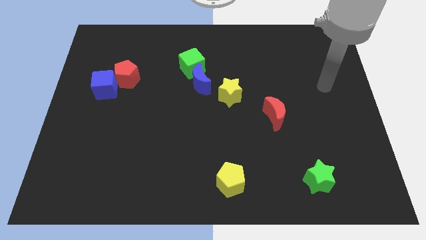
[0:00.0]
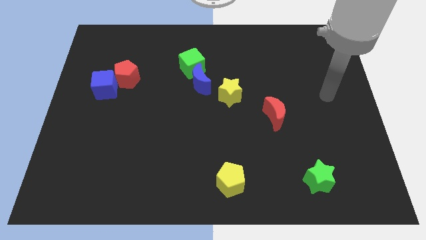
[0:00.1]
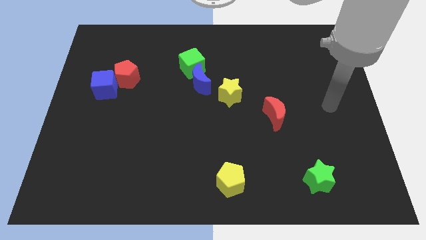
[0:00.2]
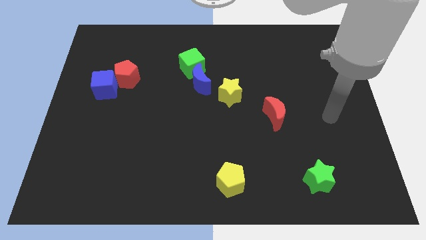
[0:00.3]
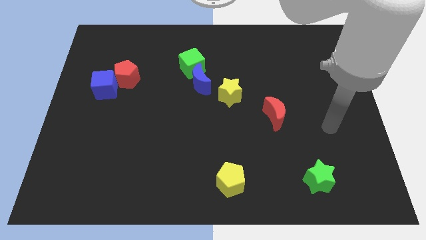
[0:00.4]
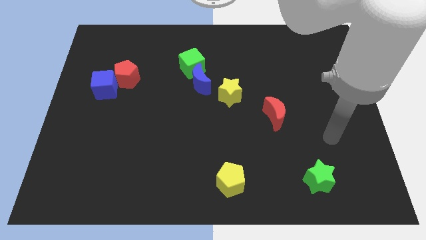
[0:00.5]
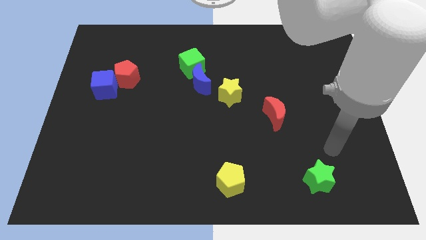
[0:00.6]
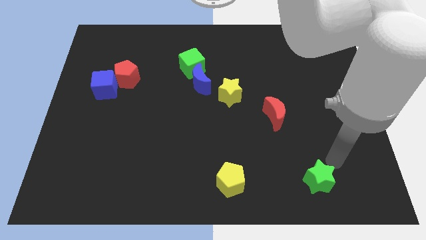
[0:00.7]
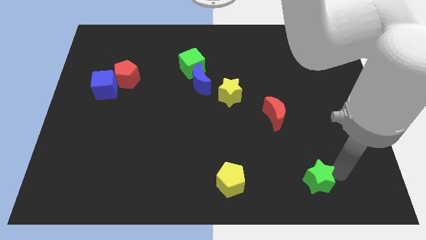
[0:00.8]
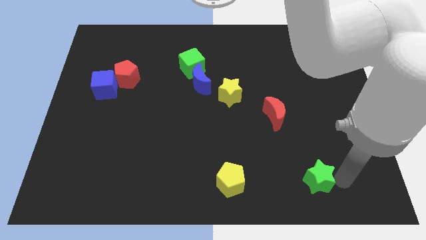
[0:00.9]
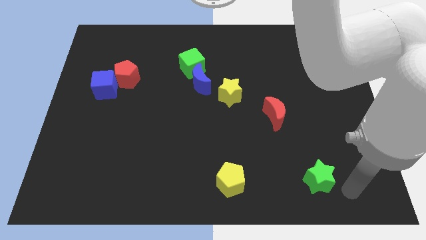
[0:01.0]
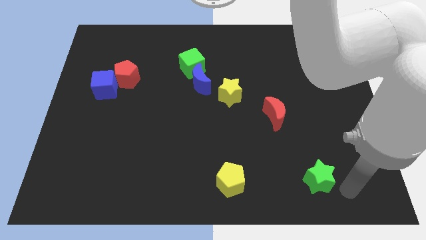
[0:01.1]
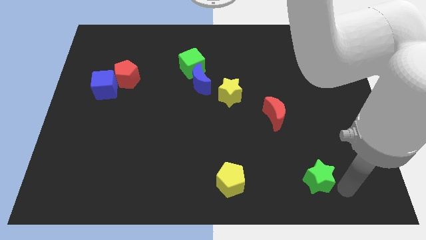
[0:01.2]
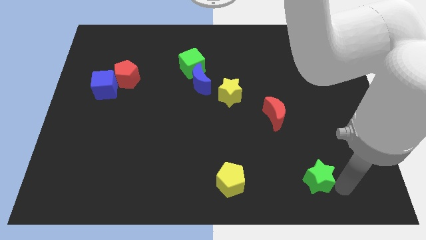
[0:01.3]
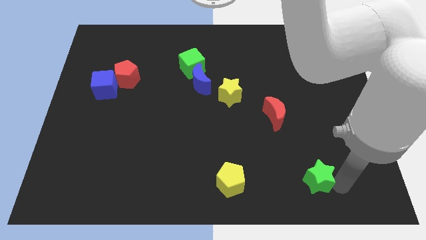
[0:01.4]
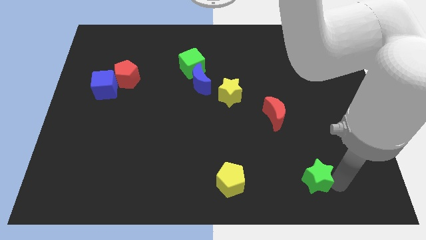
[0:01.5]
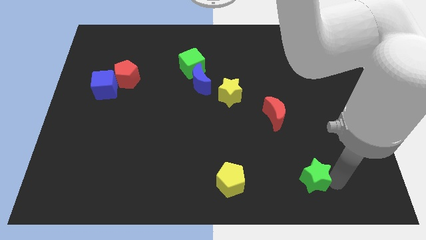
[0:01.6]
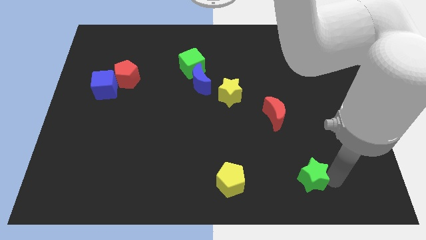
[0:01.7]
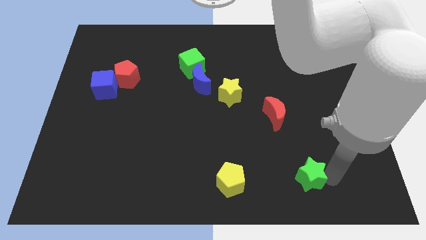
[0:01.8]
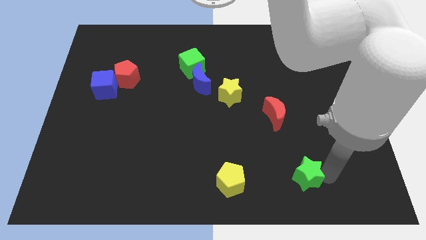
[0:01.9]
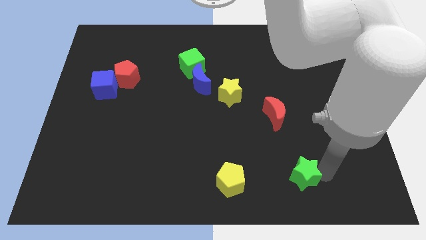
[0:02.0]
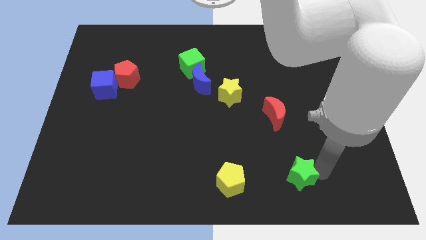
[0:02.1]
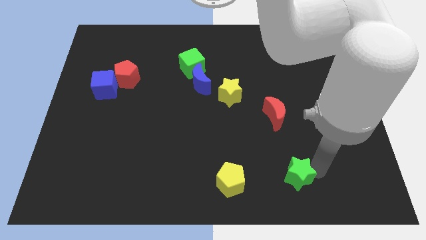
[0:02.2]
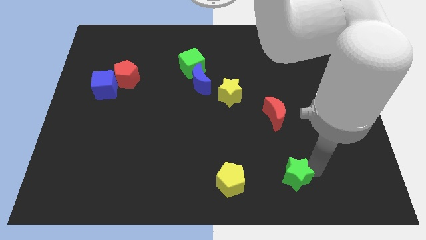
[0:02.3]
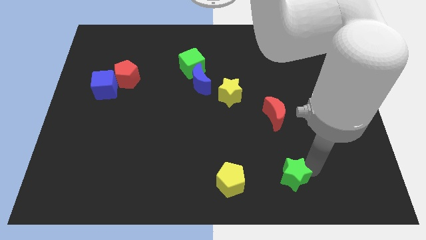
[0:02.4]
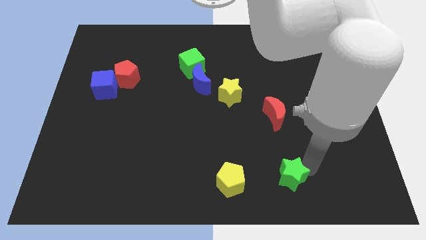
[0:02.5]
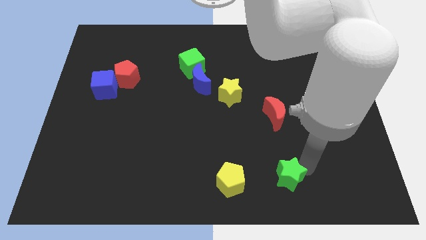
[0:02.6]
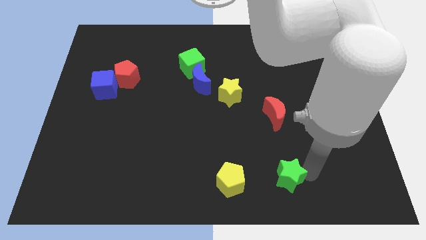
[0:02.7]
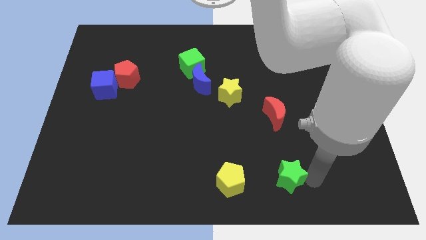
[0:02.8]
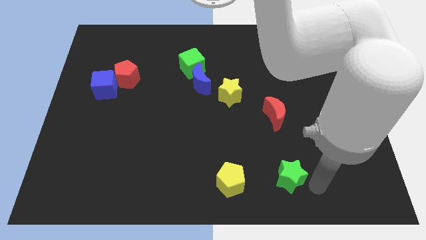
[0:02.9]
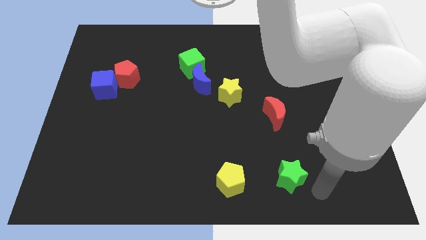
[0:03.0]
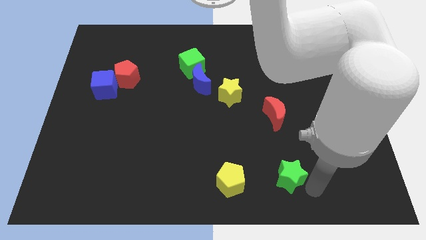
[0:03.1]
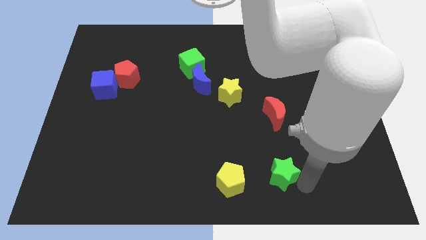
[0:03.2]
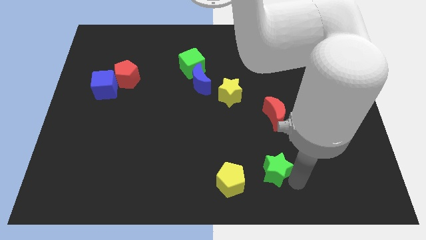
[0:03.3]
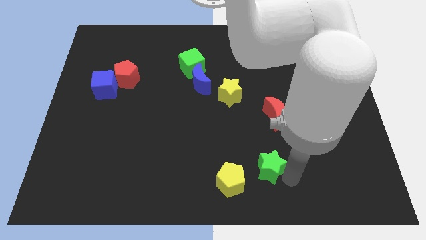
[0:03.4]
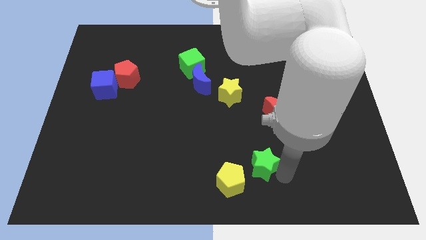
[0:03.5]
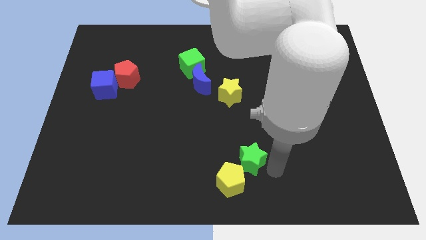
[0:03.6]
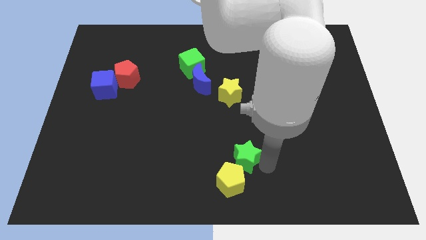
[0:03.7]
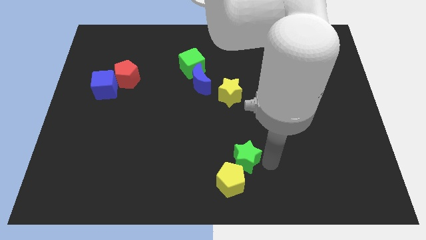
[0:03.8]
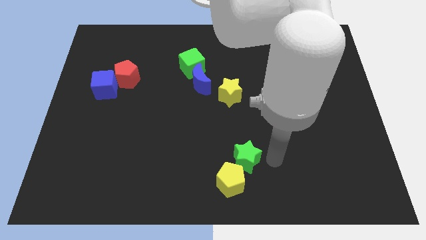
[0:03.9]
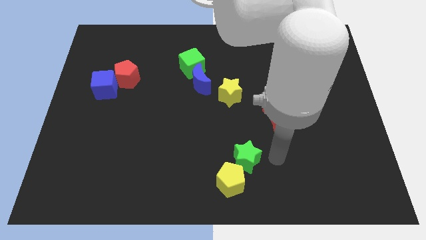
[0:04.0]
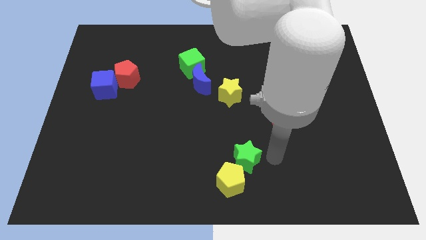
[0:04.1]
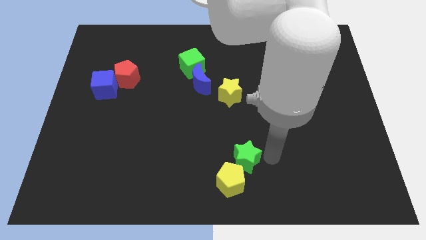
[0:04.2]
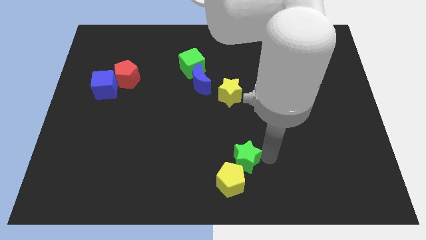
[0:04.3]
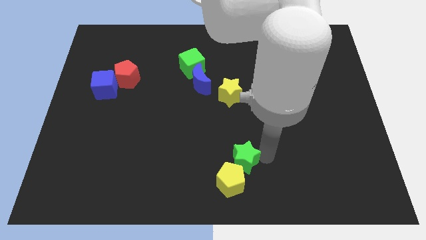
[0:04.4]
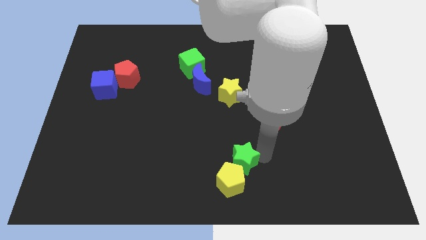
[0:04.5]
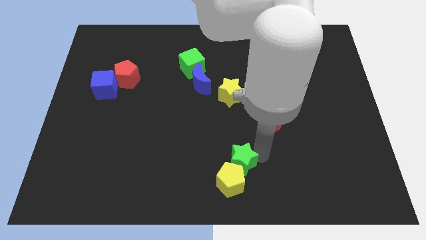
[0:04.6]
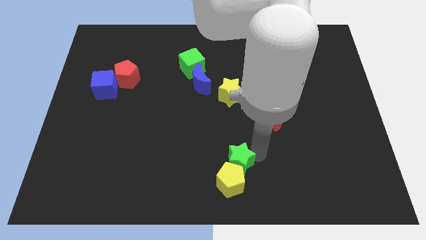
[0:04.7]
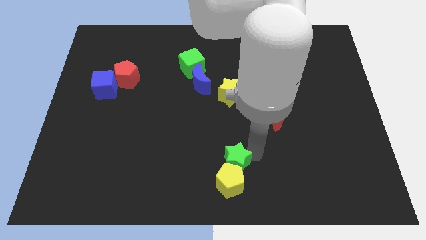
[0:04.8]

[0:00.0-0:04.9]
put the green star to the top left side of the yellow pentagon

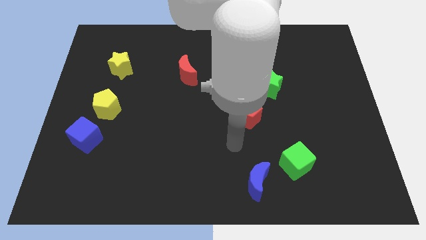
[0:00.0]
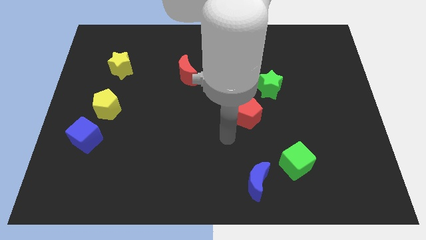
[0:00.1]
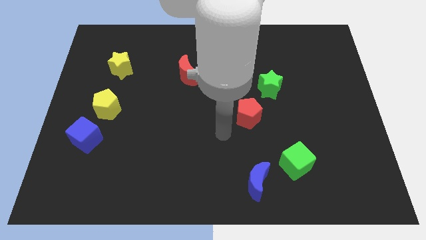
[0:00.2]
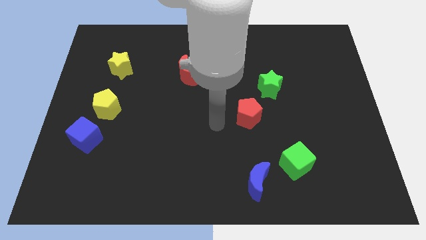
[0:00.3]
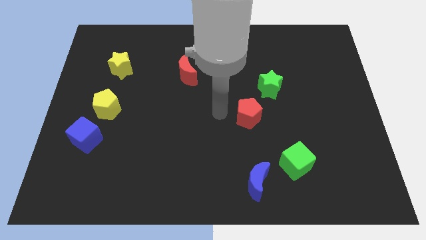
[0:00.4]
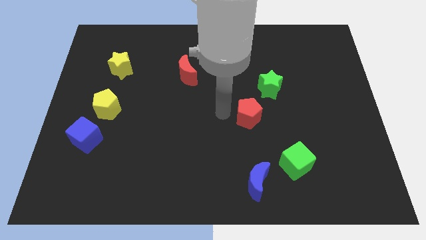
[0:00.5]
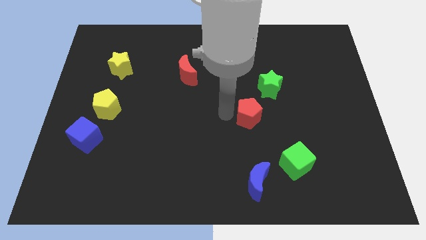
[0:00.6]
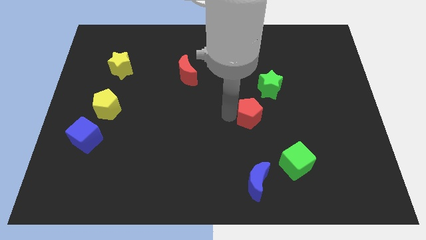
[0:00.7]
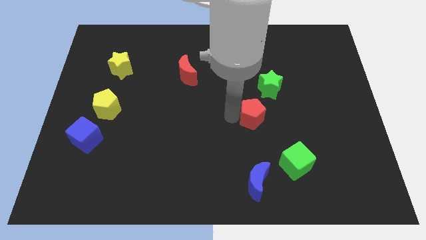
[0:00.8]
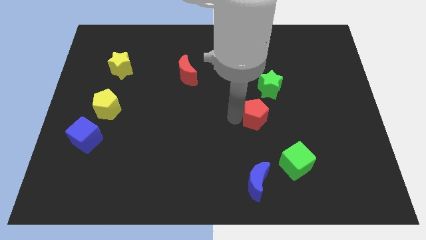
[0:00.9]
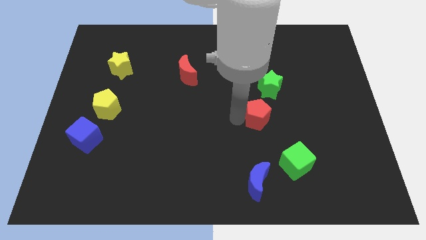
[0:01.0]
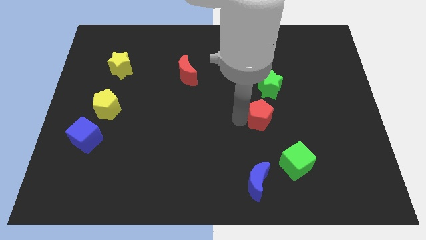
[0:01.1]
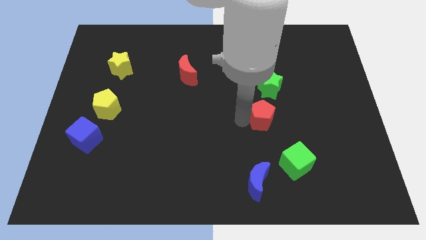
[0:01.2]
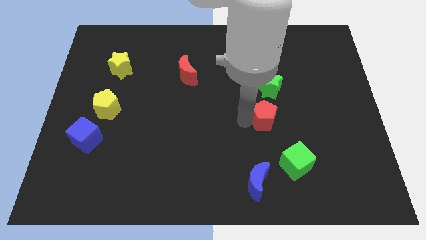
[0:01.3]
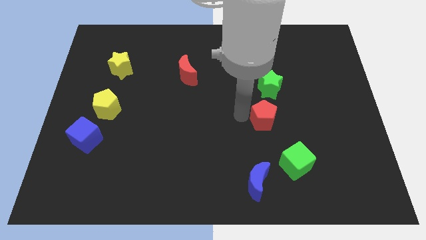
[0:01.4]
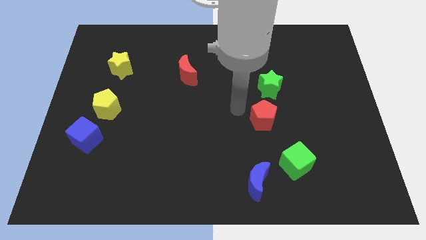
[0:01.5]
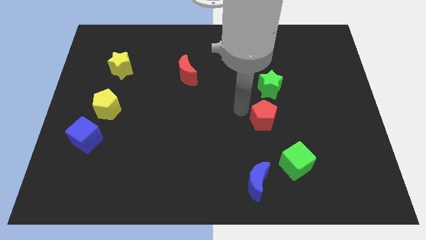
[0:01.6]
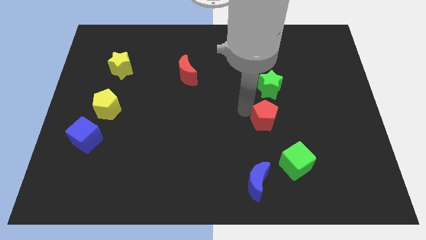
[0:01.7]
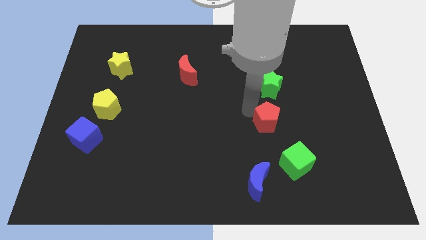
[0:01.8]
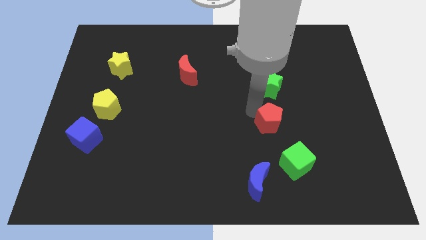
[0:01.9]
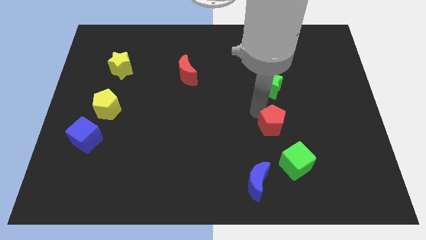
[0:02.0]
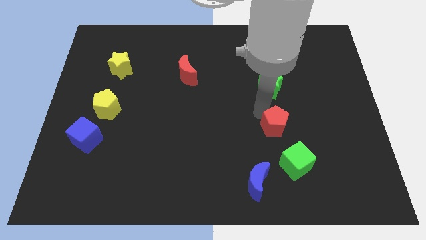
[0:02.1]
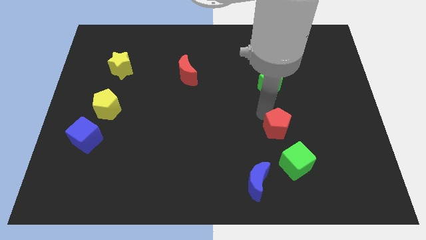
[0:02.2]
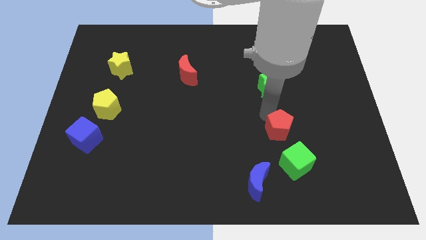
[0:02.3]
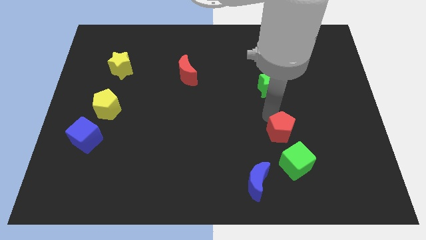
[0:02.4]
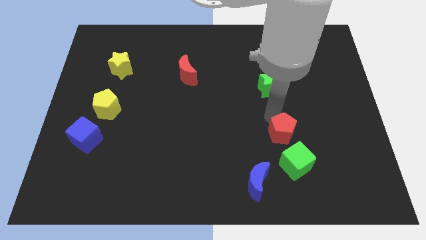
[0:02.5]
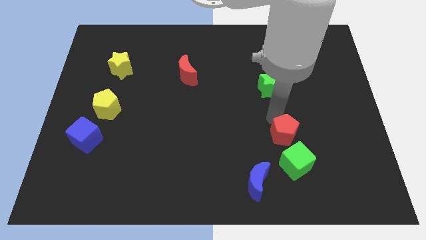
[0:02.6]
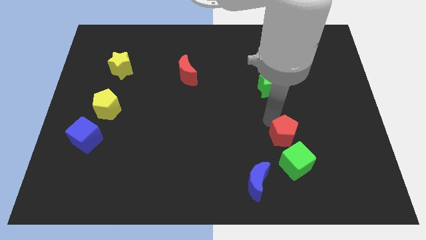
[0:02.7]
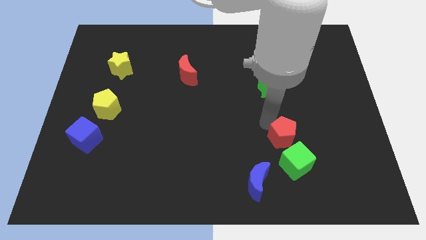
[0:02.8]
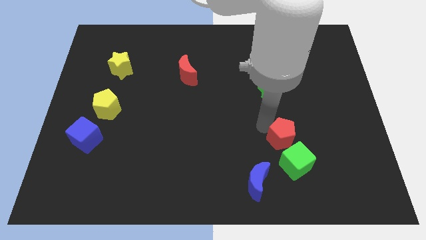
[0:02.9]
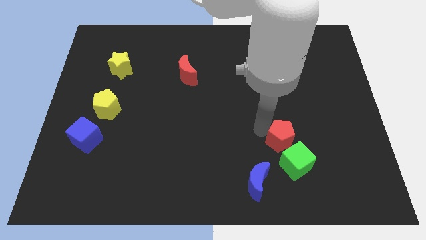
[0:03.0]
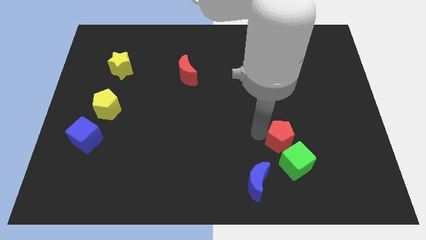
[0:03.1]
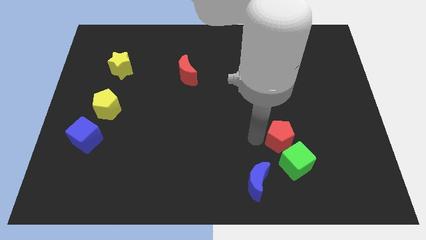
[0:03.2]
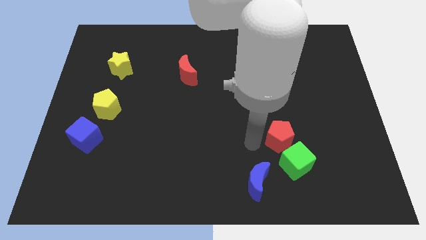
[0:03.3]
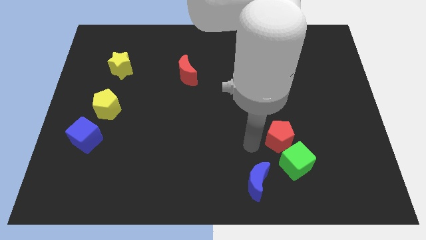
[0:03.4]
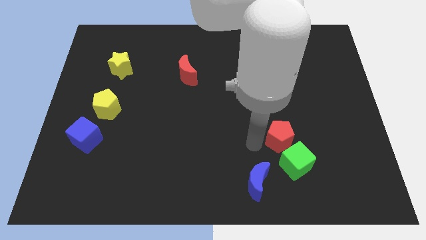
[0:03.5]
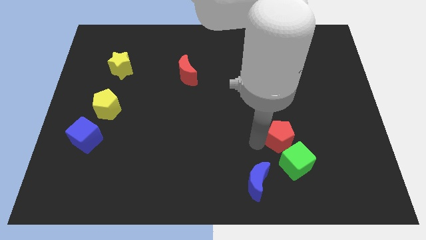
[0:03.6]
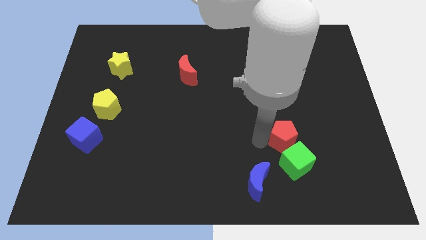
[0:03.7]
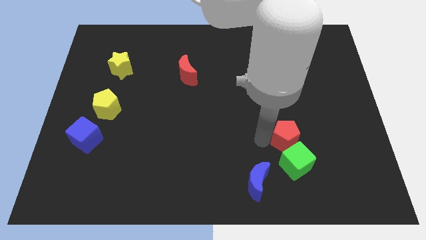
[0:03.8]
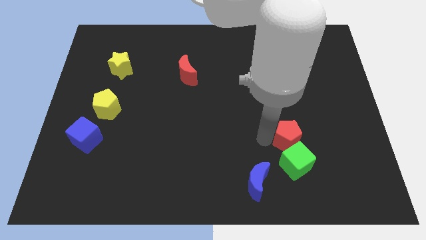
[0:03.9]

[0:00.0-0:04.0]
push the red pentagon to the top right side of the green cube
